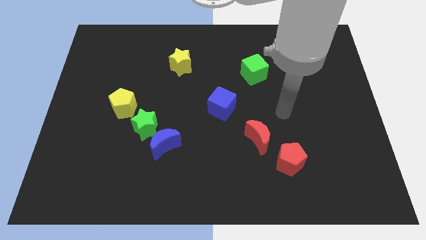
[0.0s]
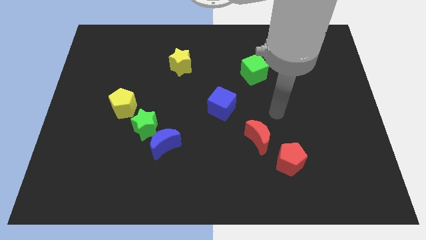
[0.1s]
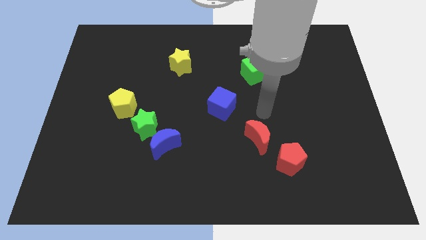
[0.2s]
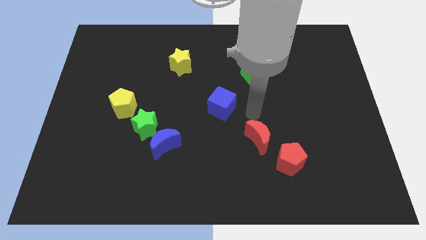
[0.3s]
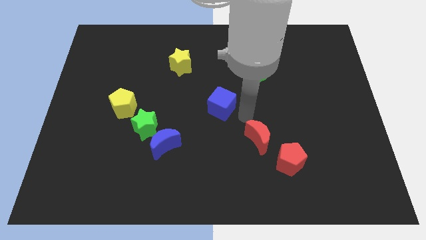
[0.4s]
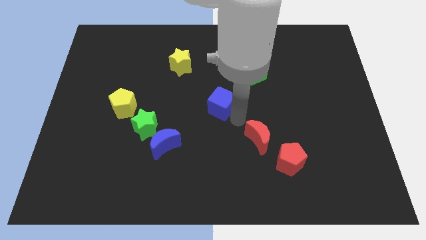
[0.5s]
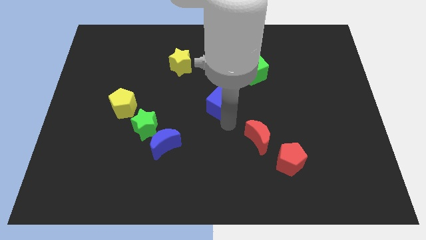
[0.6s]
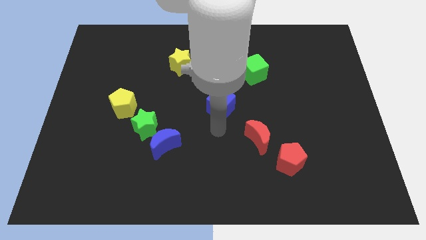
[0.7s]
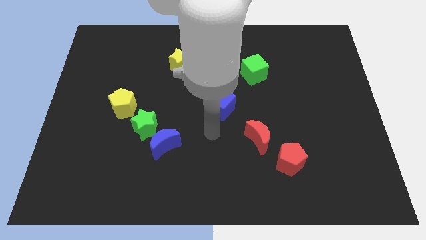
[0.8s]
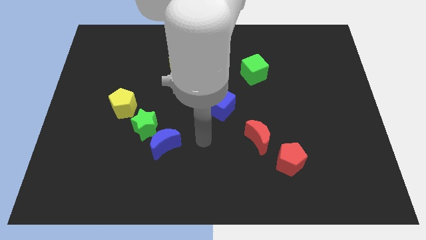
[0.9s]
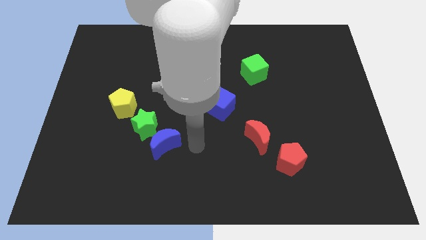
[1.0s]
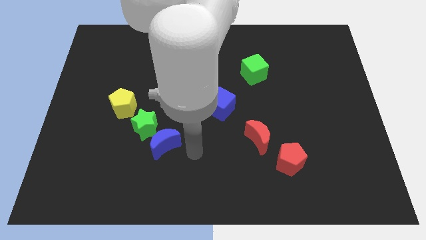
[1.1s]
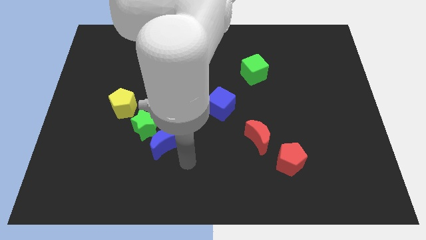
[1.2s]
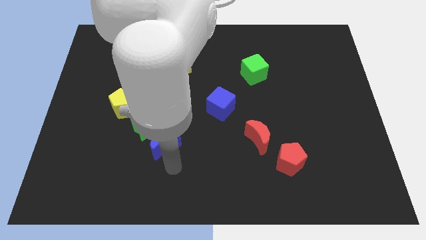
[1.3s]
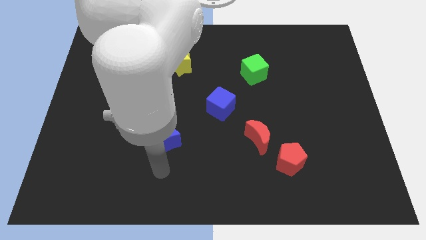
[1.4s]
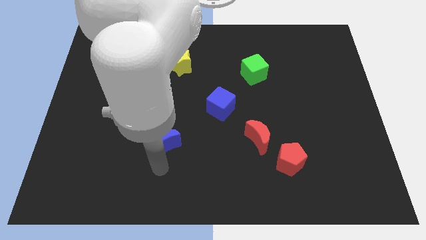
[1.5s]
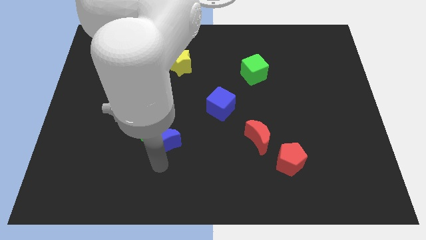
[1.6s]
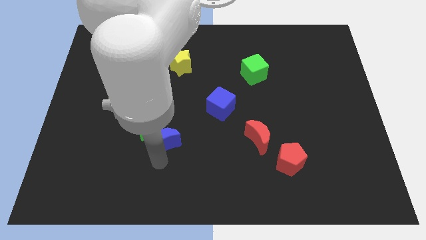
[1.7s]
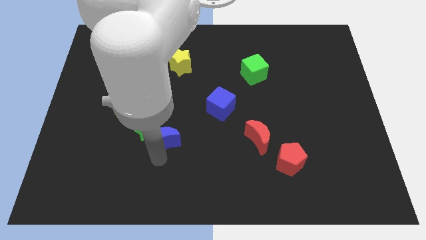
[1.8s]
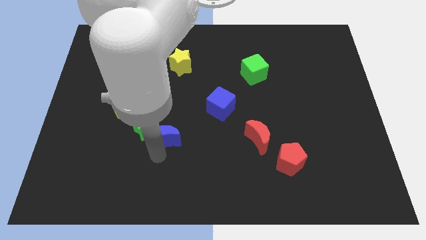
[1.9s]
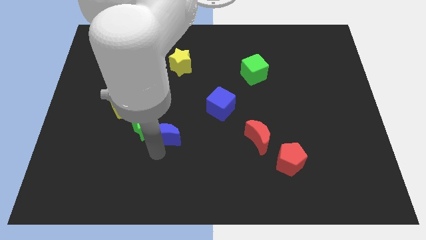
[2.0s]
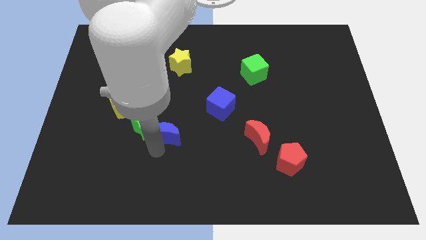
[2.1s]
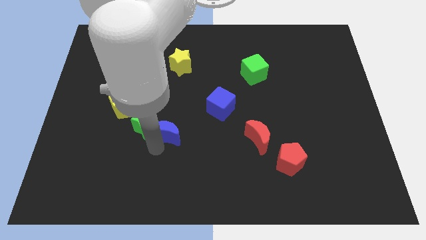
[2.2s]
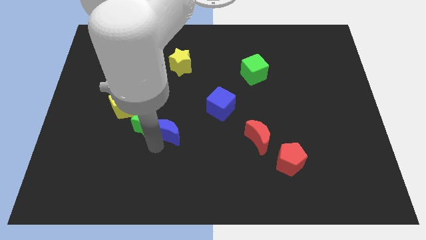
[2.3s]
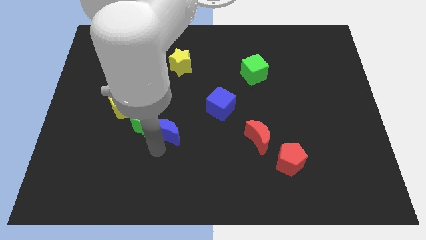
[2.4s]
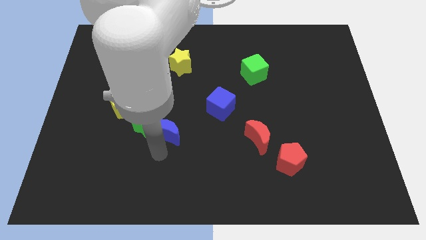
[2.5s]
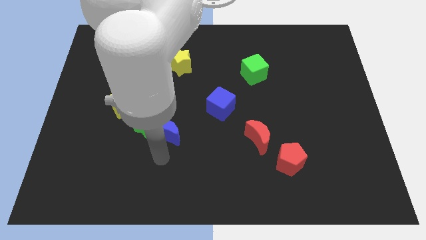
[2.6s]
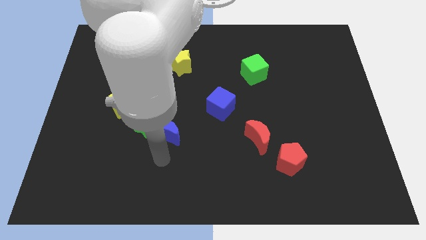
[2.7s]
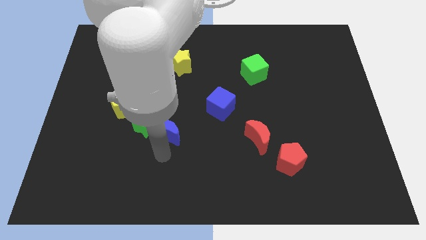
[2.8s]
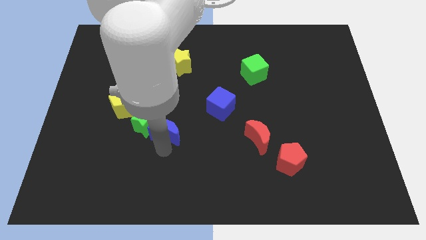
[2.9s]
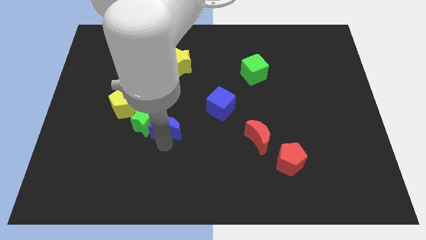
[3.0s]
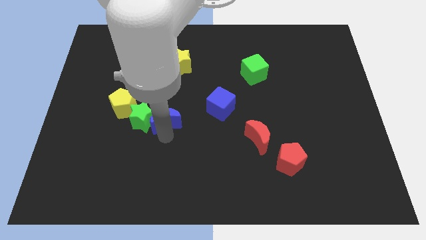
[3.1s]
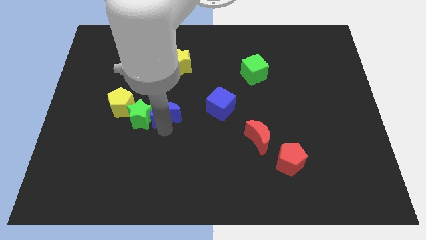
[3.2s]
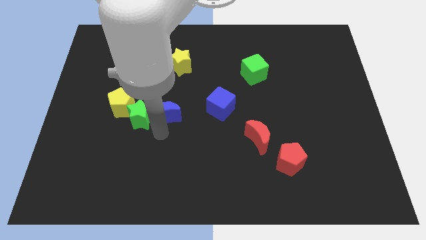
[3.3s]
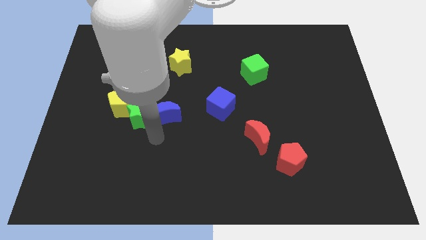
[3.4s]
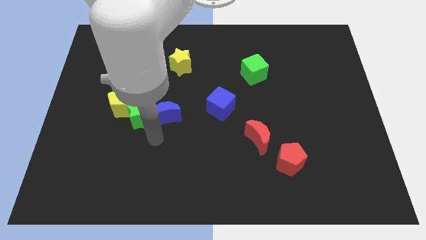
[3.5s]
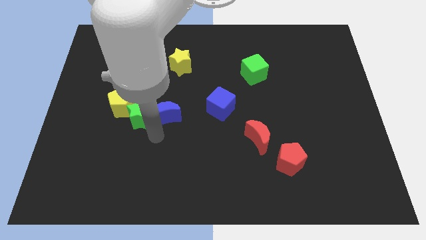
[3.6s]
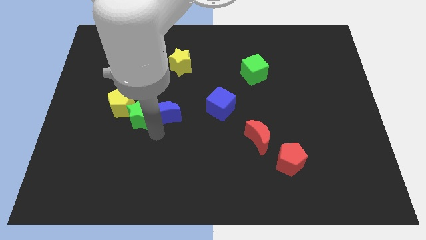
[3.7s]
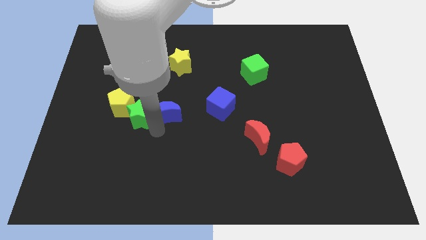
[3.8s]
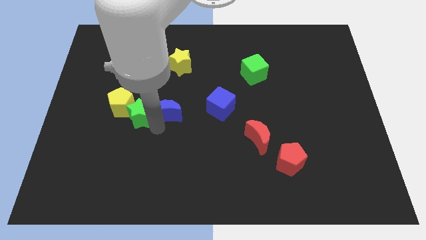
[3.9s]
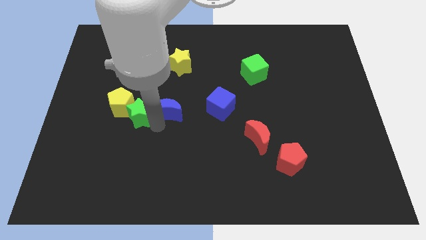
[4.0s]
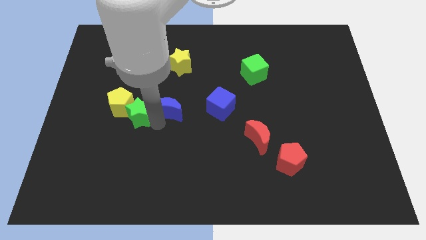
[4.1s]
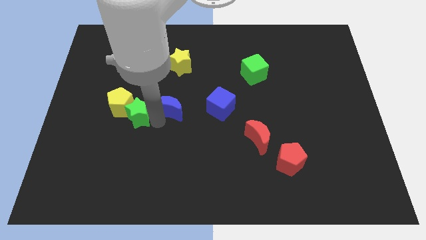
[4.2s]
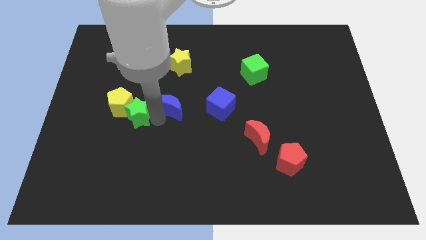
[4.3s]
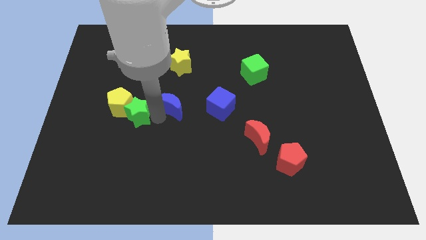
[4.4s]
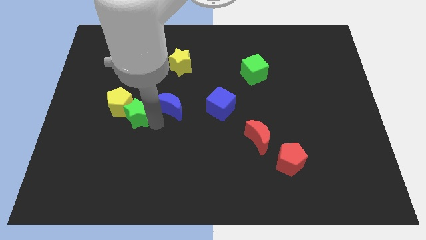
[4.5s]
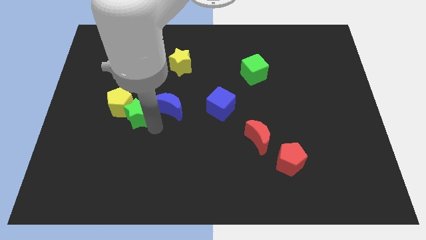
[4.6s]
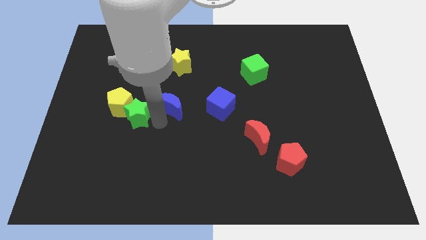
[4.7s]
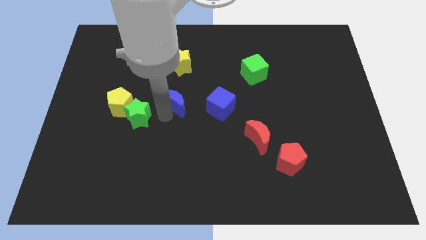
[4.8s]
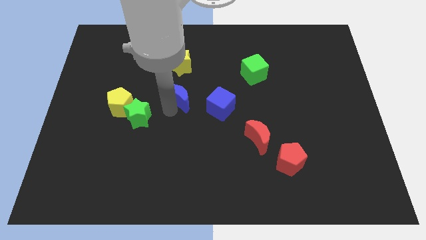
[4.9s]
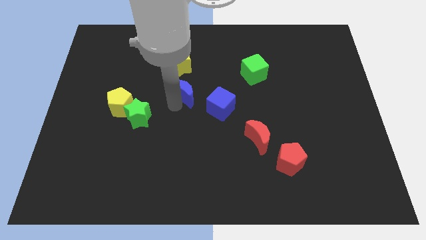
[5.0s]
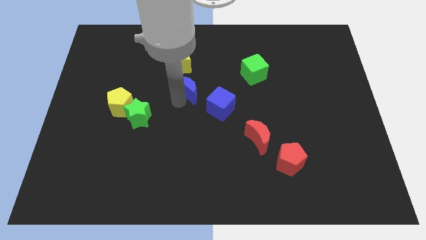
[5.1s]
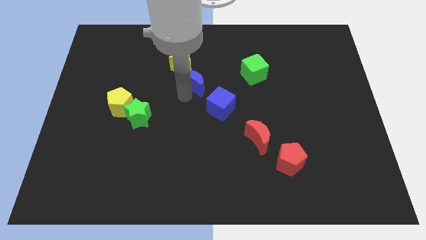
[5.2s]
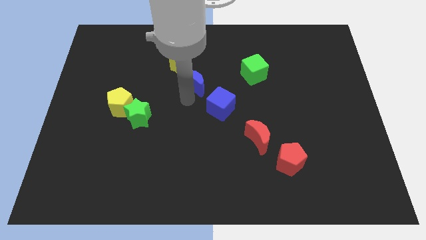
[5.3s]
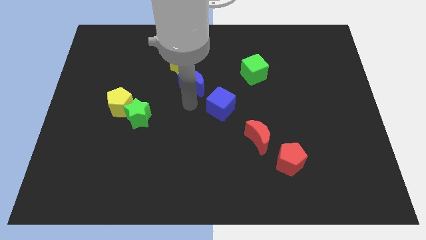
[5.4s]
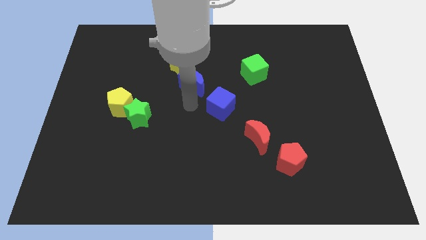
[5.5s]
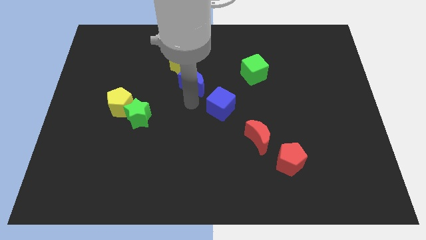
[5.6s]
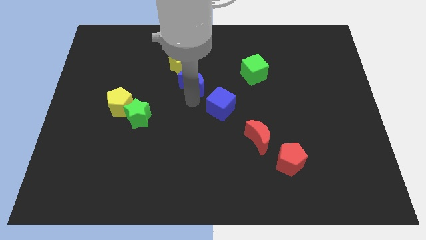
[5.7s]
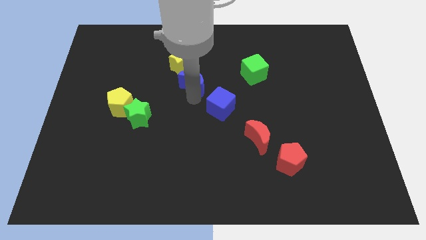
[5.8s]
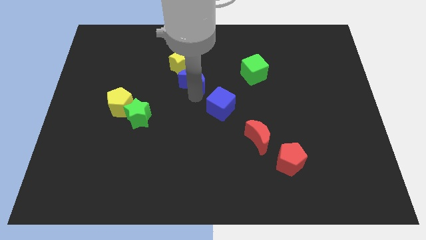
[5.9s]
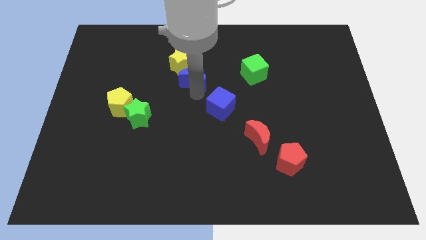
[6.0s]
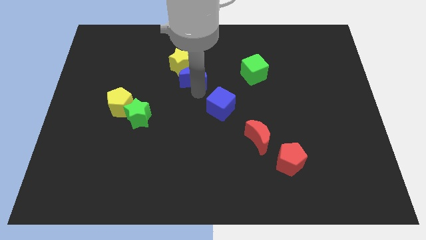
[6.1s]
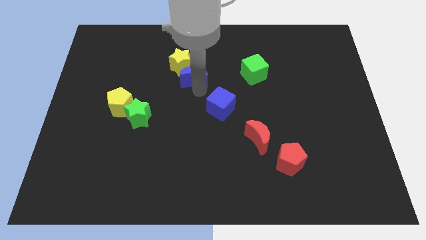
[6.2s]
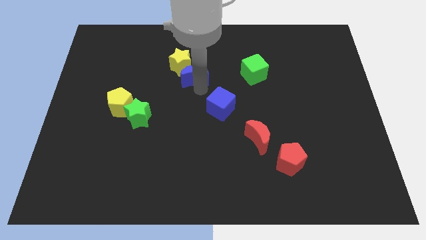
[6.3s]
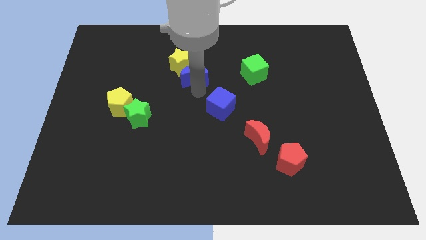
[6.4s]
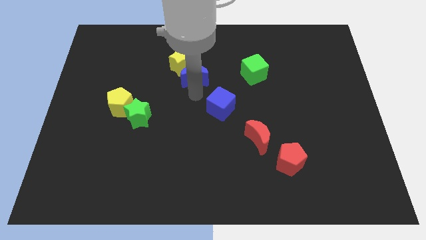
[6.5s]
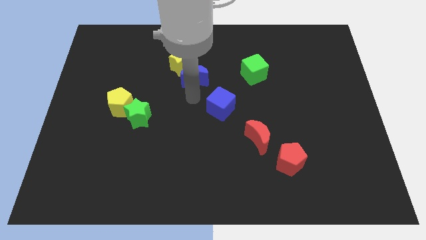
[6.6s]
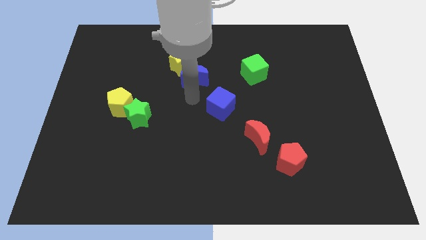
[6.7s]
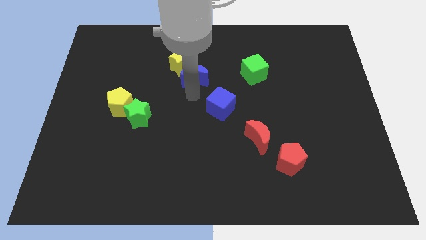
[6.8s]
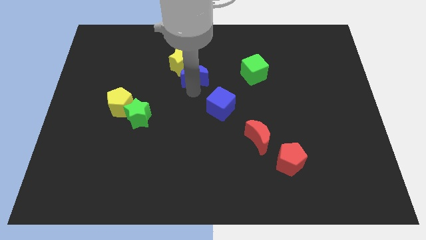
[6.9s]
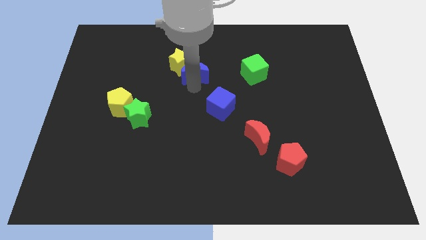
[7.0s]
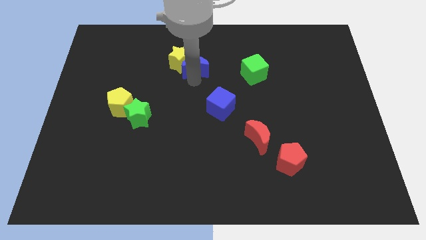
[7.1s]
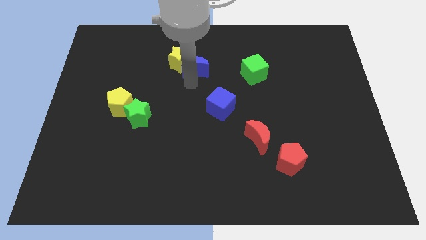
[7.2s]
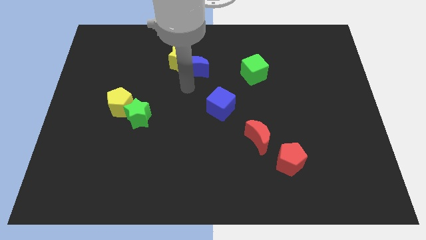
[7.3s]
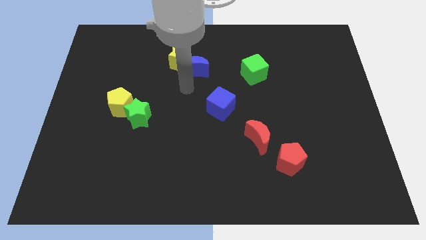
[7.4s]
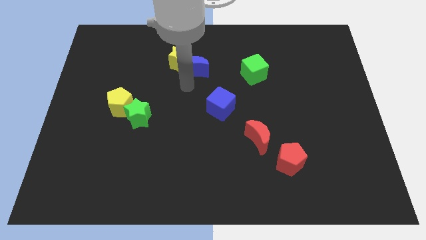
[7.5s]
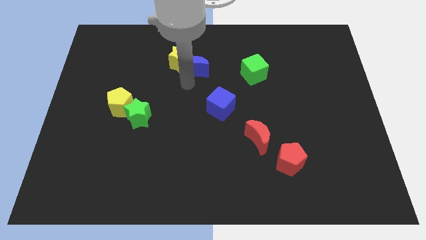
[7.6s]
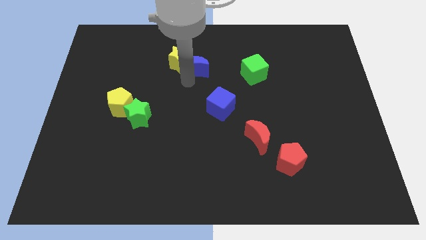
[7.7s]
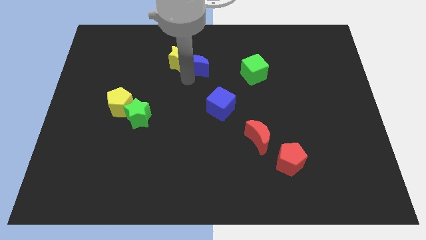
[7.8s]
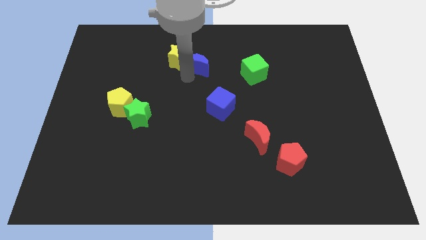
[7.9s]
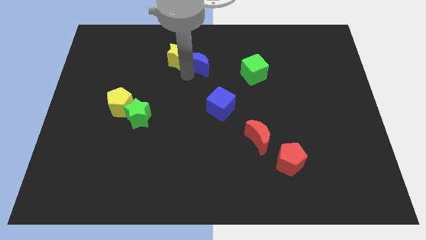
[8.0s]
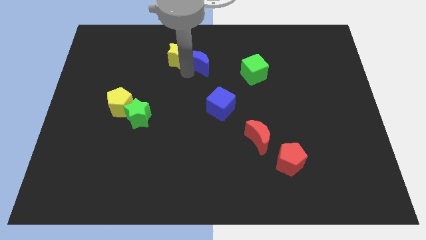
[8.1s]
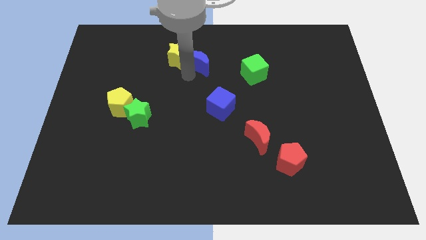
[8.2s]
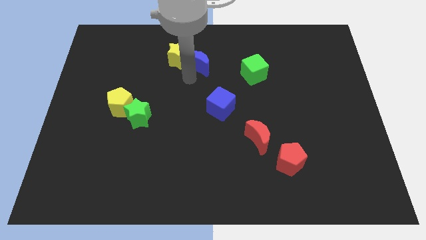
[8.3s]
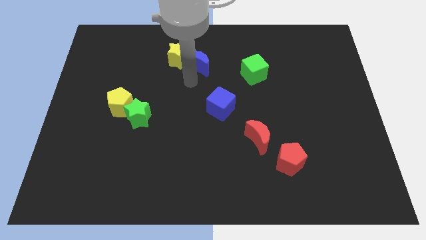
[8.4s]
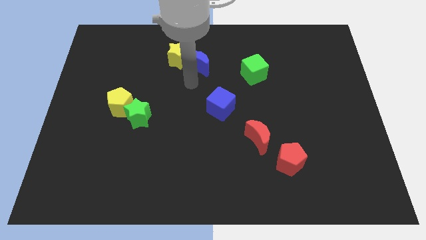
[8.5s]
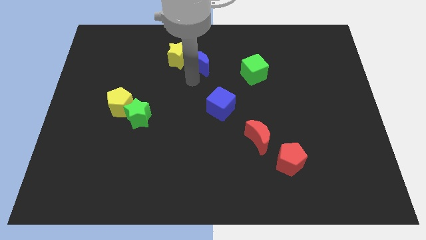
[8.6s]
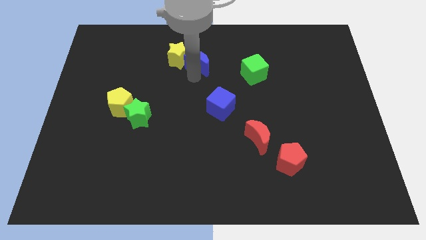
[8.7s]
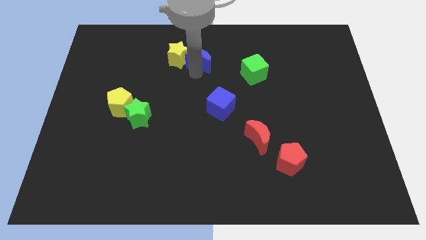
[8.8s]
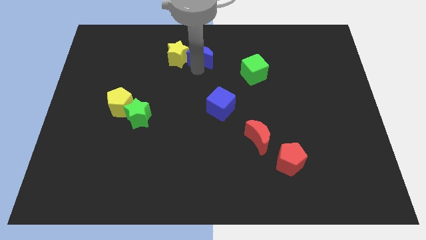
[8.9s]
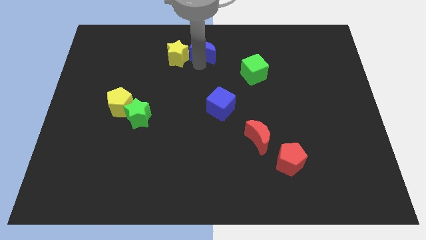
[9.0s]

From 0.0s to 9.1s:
push the blue moon to the towards your base
